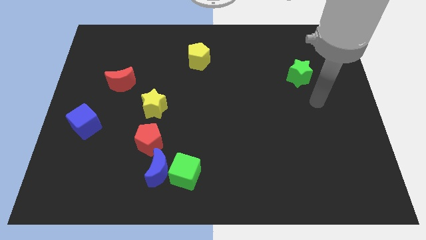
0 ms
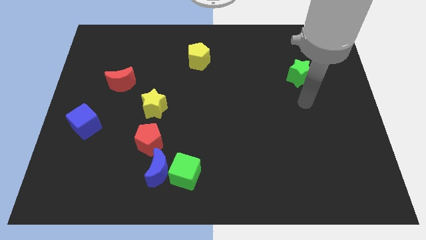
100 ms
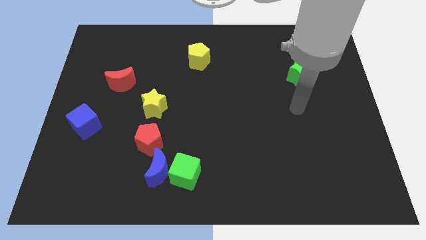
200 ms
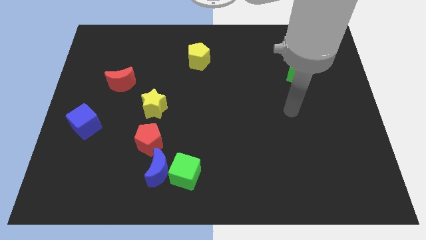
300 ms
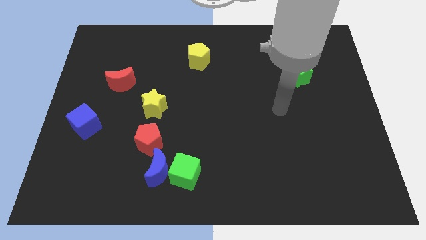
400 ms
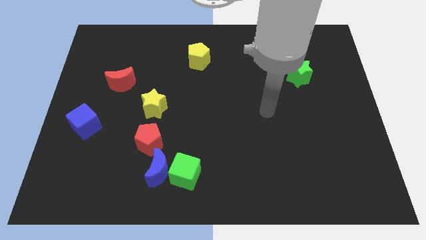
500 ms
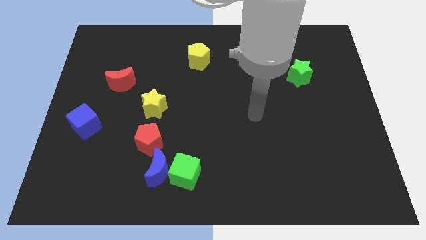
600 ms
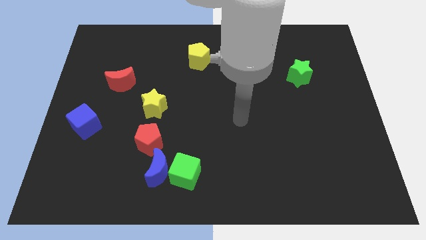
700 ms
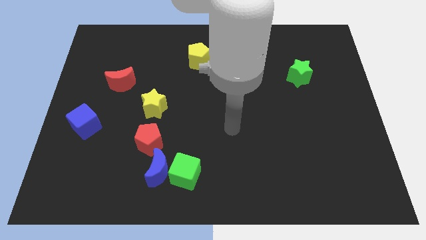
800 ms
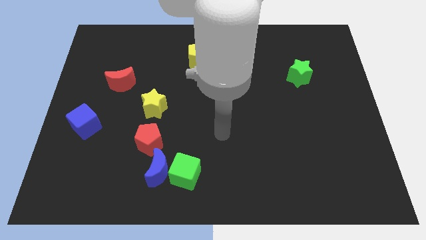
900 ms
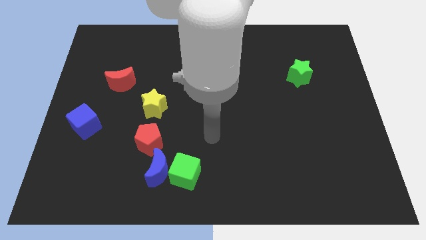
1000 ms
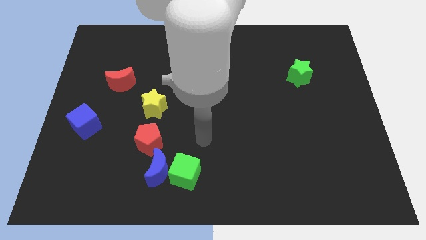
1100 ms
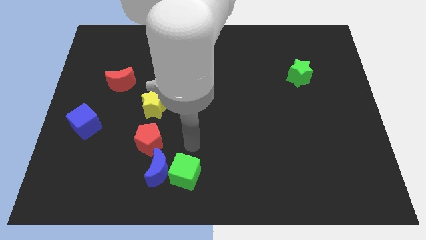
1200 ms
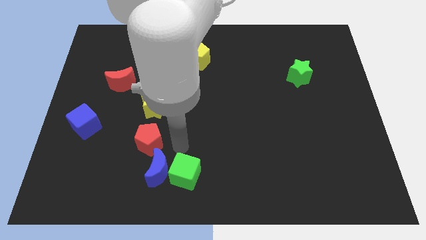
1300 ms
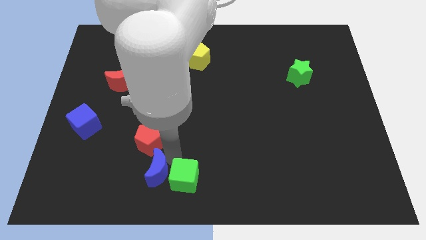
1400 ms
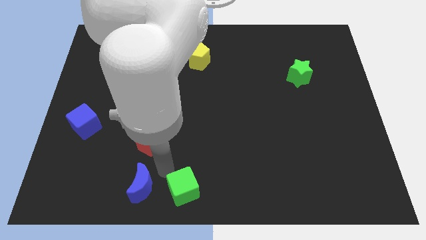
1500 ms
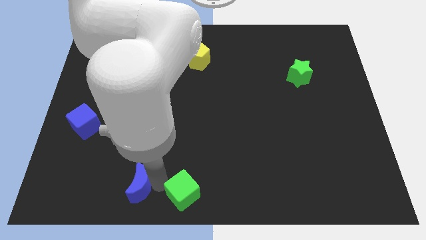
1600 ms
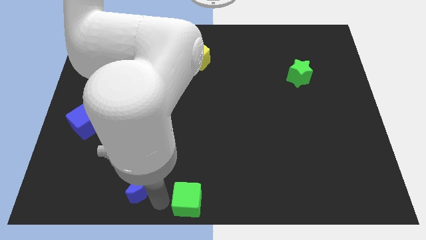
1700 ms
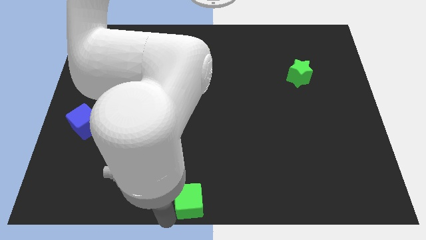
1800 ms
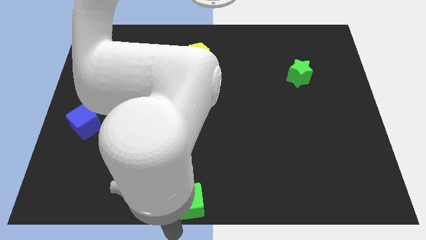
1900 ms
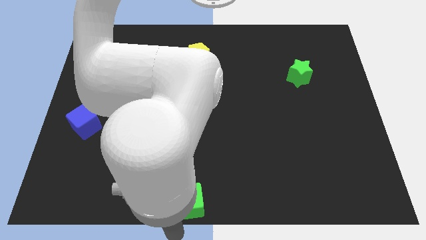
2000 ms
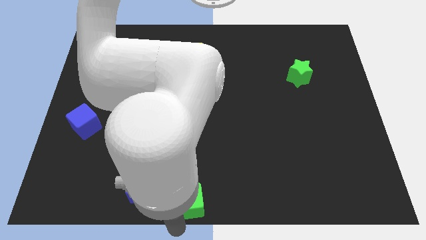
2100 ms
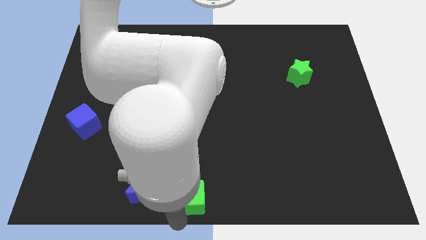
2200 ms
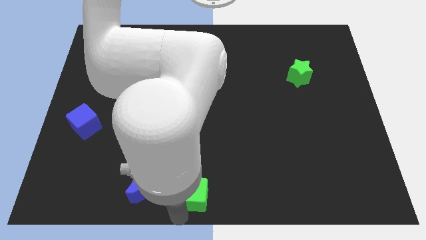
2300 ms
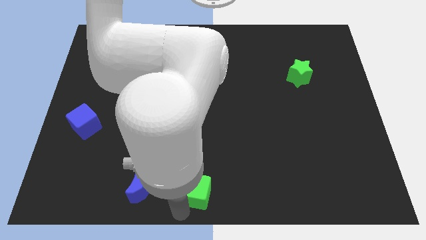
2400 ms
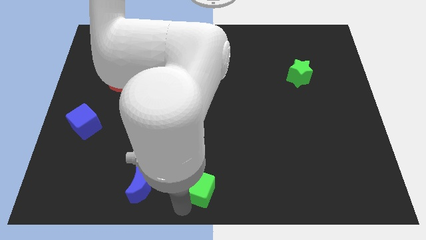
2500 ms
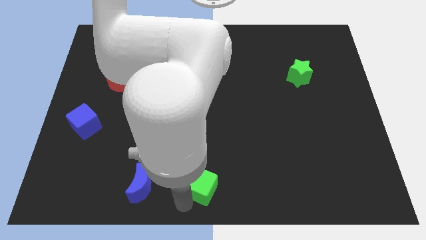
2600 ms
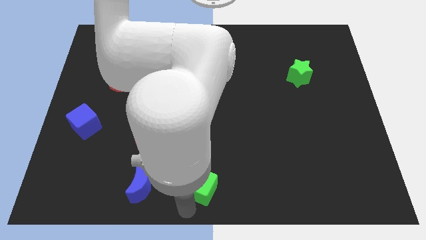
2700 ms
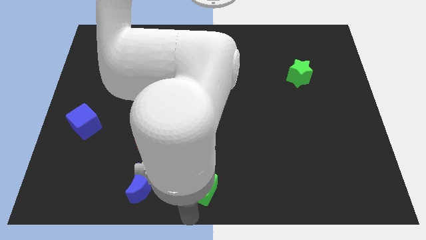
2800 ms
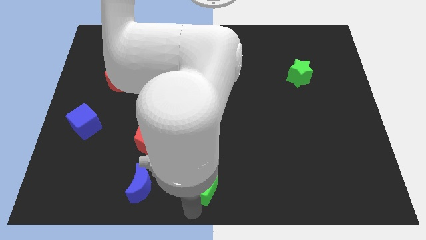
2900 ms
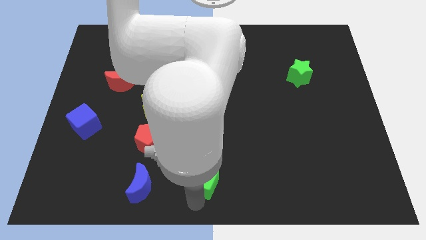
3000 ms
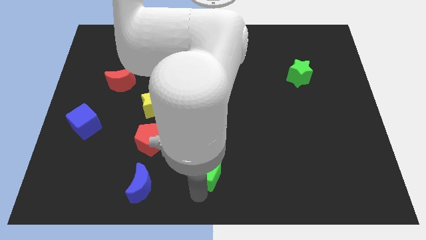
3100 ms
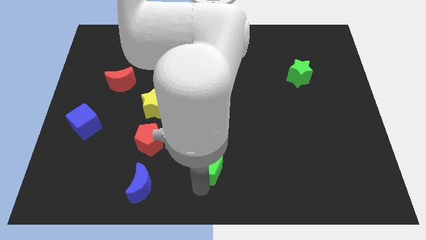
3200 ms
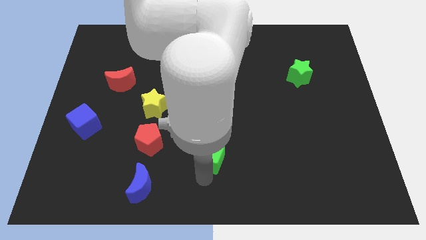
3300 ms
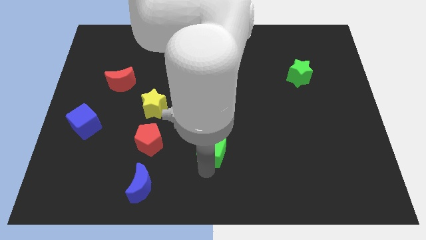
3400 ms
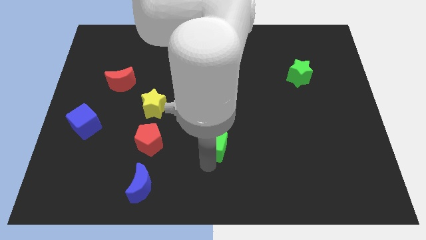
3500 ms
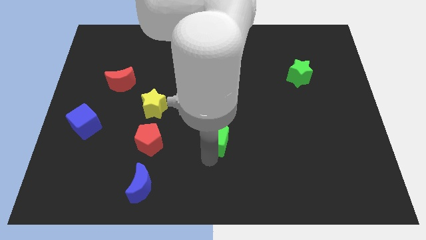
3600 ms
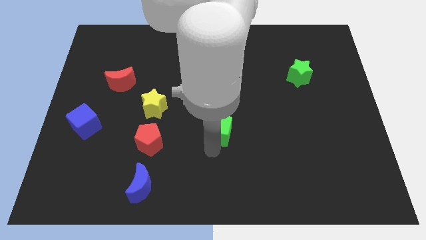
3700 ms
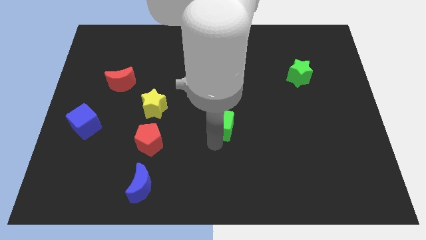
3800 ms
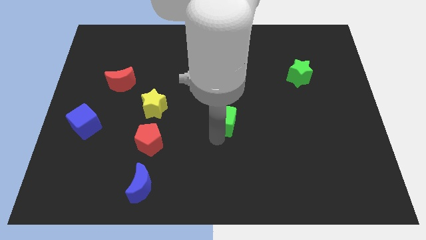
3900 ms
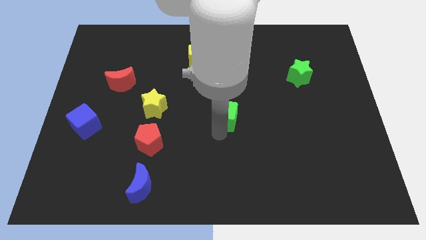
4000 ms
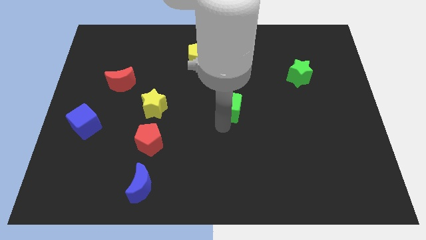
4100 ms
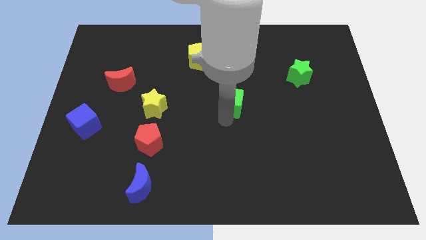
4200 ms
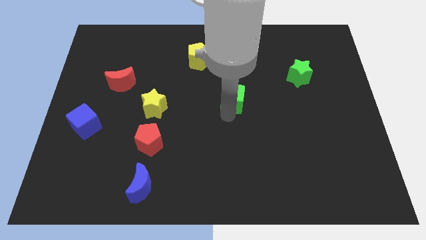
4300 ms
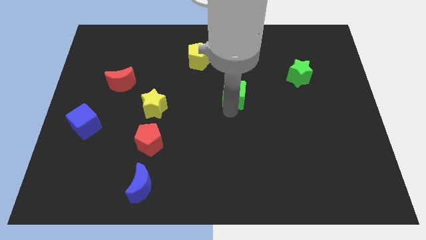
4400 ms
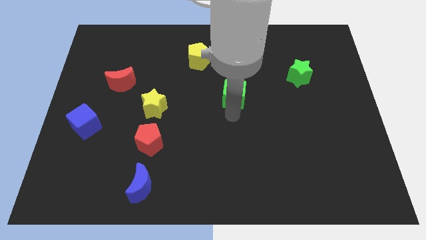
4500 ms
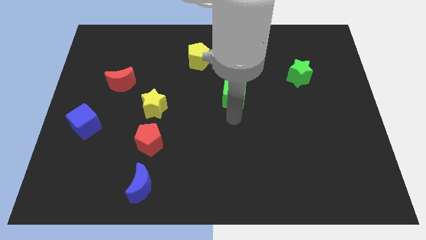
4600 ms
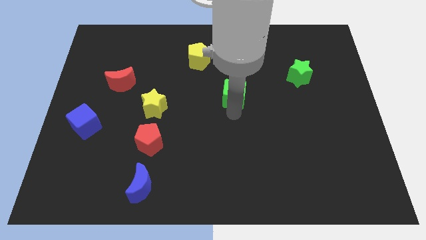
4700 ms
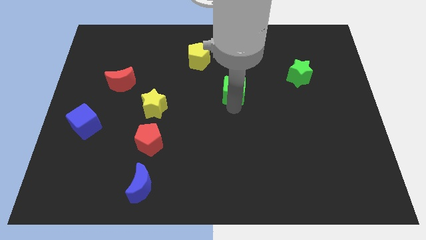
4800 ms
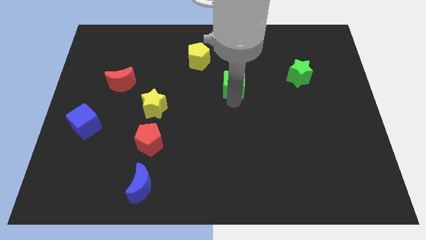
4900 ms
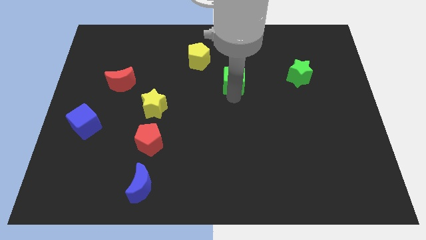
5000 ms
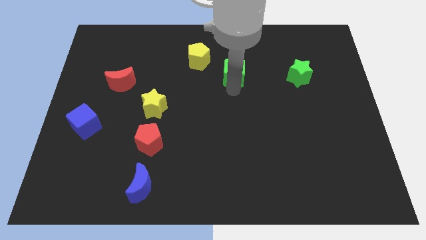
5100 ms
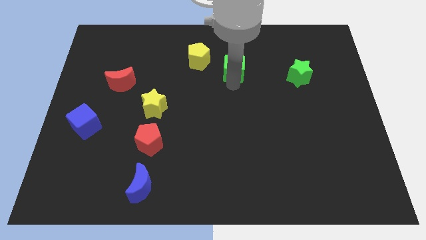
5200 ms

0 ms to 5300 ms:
put the green cube to the right of the yellow pentagon
